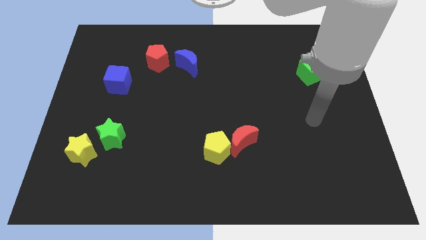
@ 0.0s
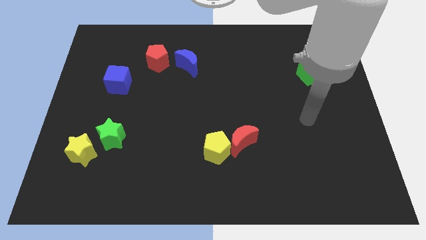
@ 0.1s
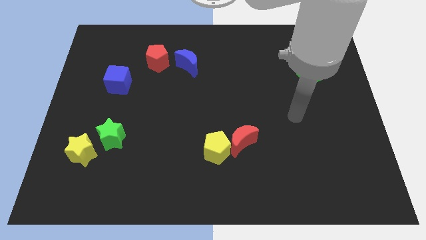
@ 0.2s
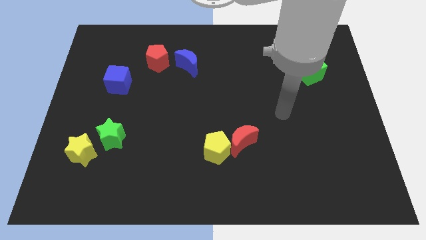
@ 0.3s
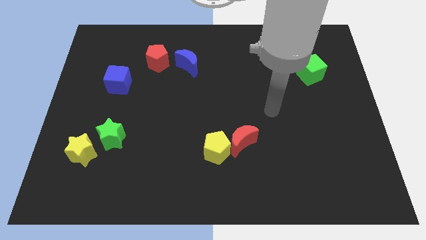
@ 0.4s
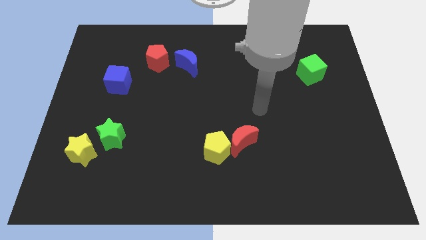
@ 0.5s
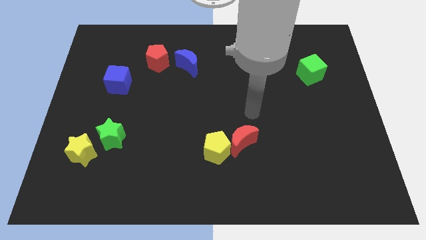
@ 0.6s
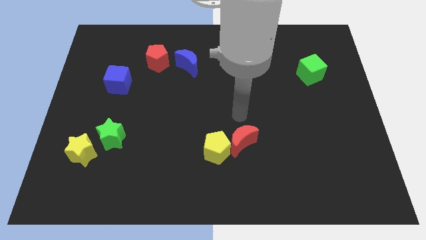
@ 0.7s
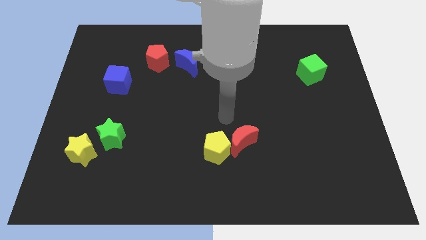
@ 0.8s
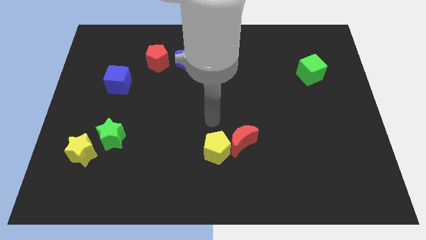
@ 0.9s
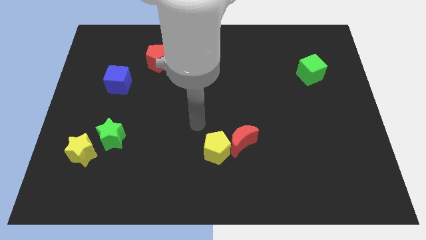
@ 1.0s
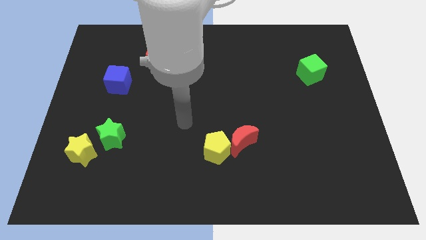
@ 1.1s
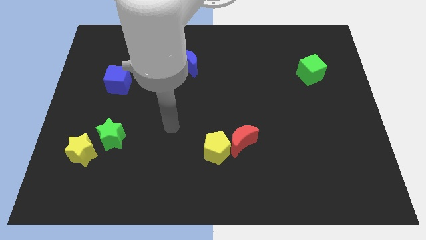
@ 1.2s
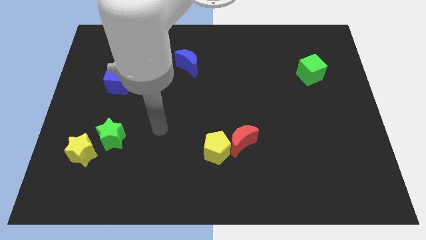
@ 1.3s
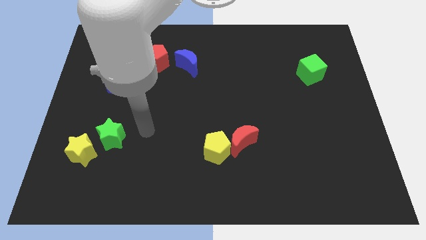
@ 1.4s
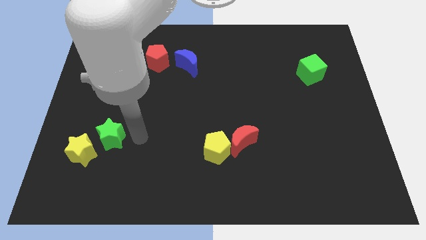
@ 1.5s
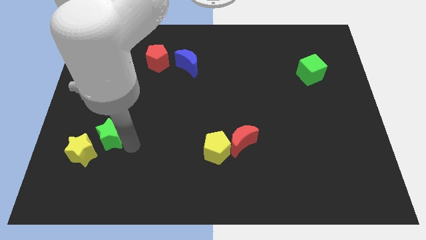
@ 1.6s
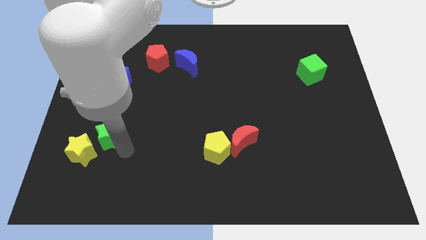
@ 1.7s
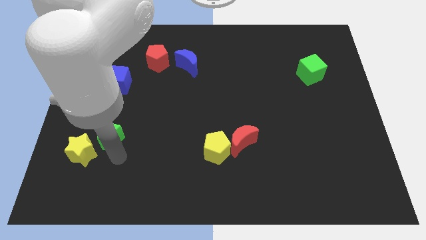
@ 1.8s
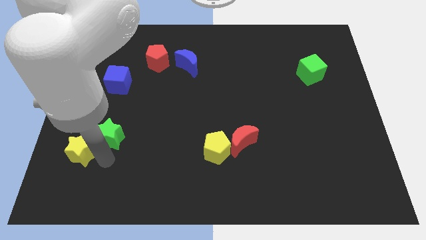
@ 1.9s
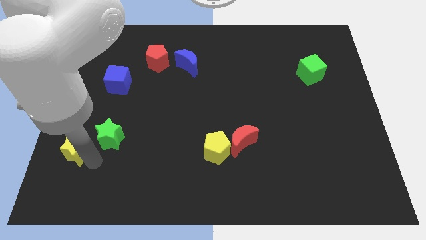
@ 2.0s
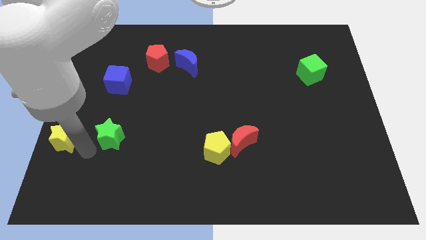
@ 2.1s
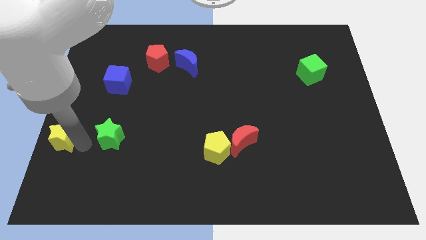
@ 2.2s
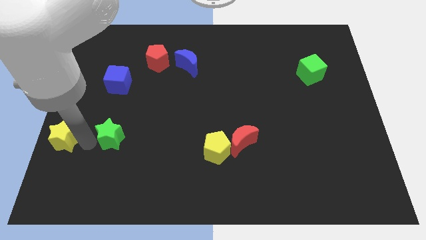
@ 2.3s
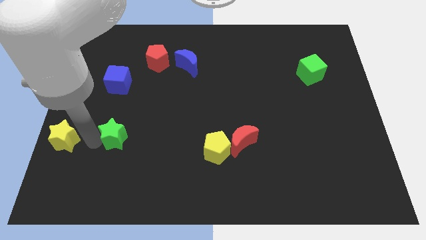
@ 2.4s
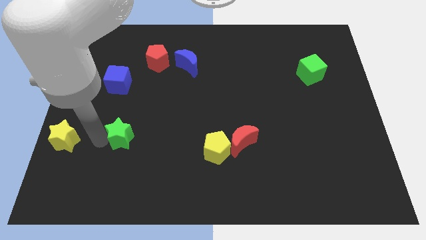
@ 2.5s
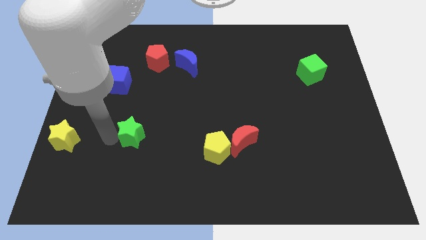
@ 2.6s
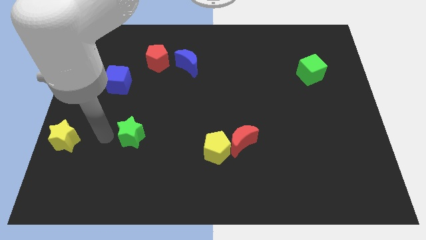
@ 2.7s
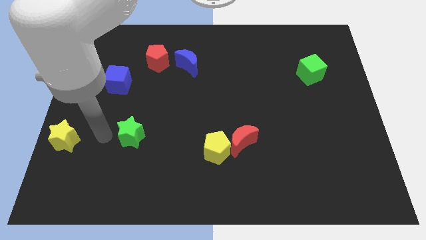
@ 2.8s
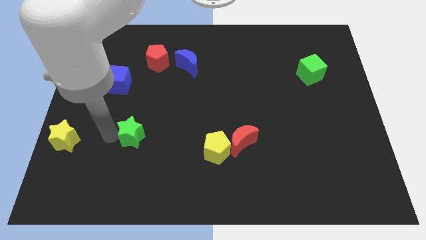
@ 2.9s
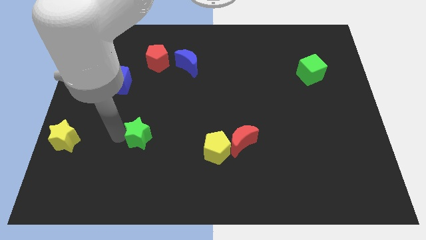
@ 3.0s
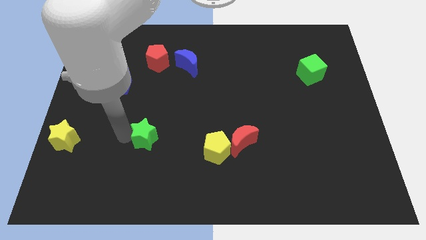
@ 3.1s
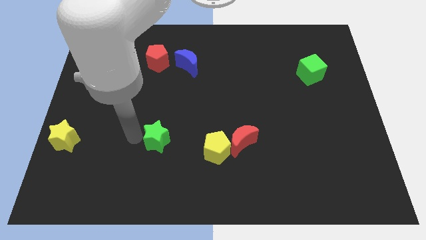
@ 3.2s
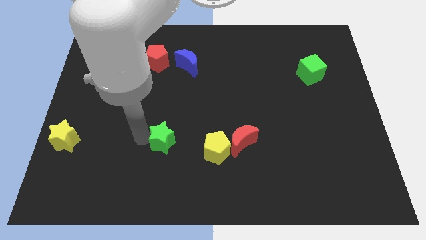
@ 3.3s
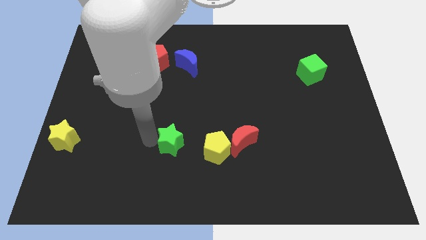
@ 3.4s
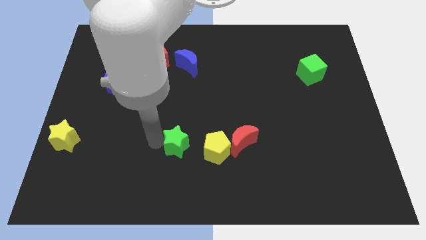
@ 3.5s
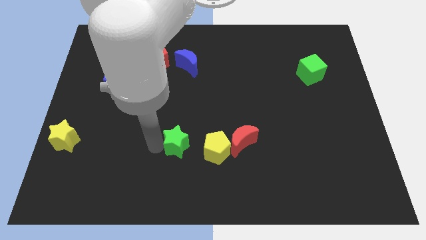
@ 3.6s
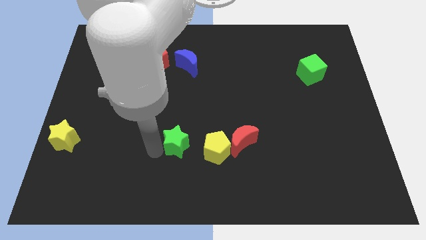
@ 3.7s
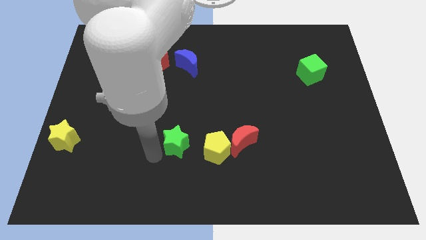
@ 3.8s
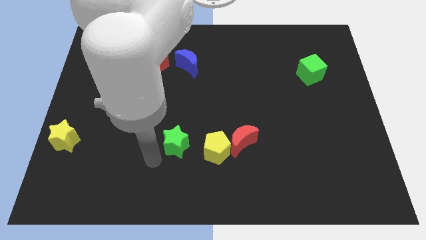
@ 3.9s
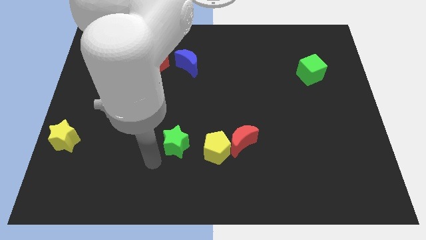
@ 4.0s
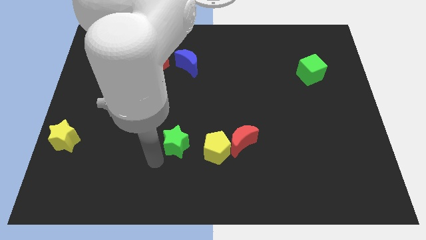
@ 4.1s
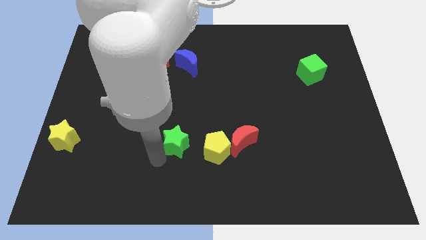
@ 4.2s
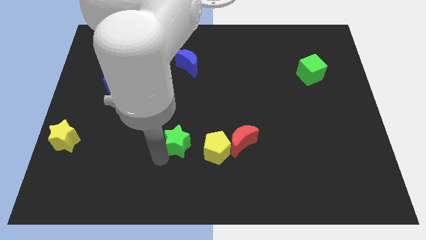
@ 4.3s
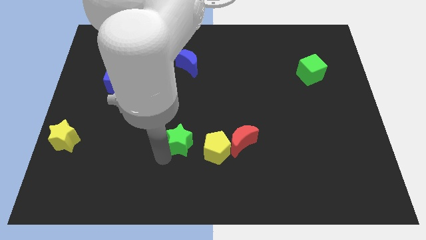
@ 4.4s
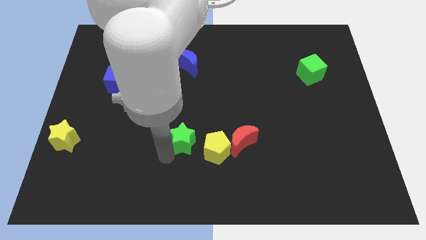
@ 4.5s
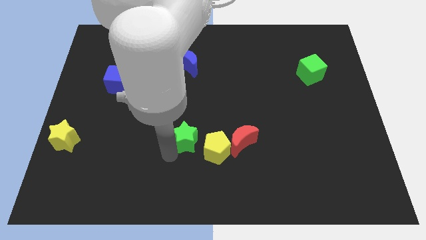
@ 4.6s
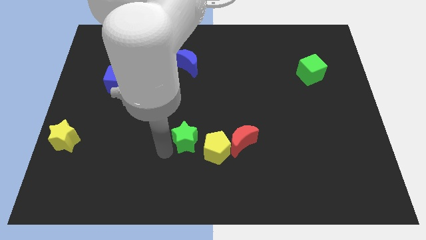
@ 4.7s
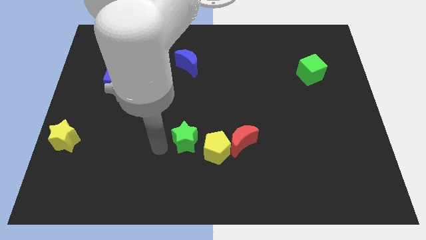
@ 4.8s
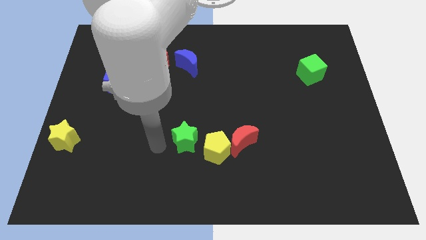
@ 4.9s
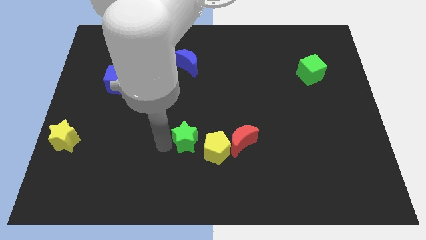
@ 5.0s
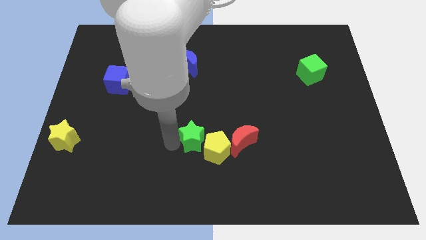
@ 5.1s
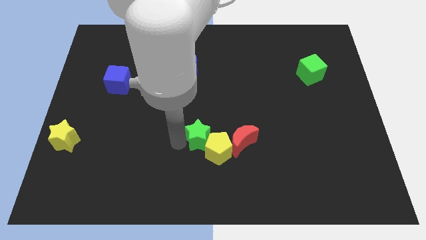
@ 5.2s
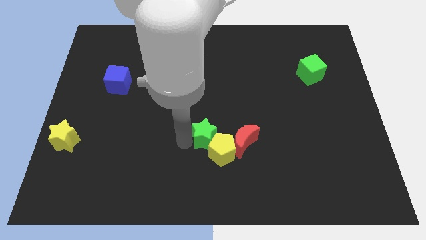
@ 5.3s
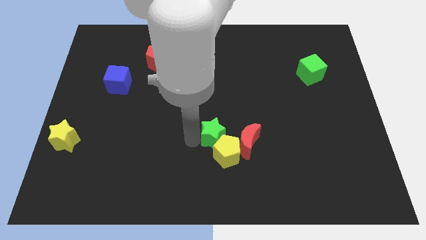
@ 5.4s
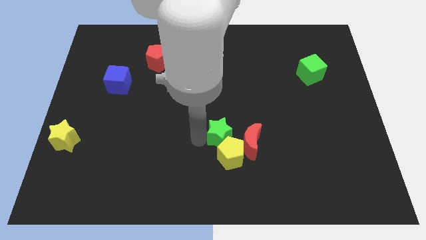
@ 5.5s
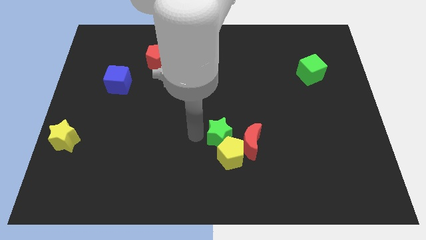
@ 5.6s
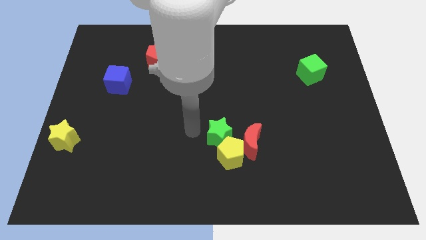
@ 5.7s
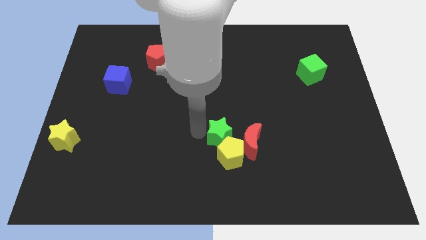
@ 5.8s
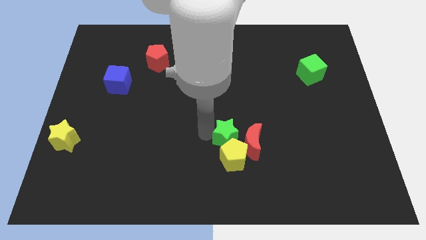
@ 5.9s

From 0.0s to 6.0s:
put the green star towards the red moon

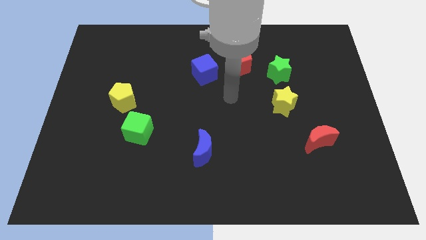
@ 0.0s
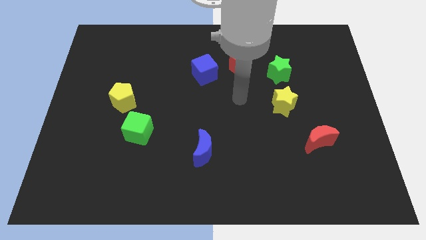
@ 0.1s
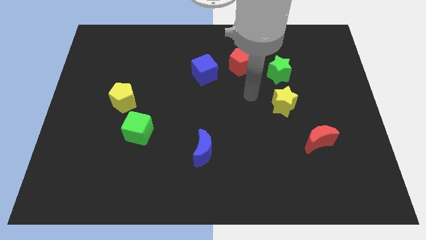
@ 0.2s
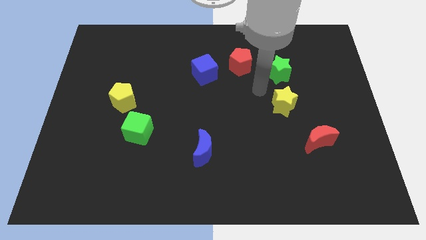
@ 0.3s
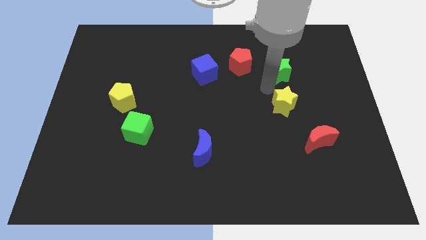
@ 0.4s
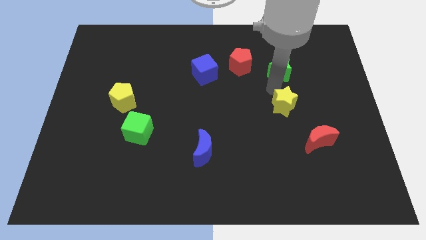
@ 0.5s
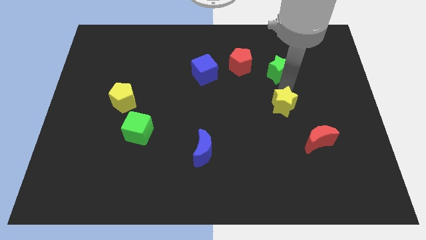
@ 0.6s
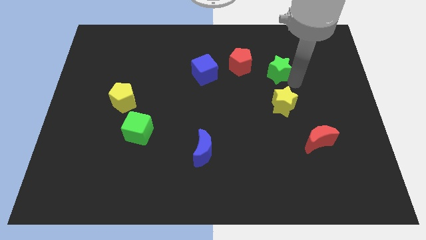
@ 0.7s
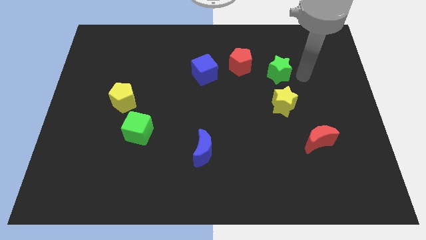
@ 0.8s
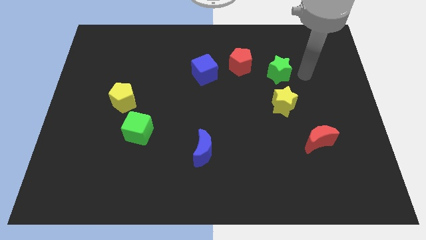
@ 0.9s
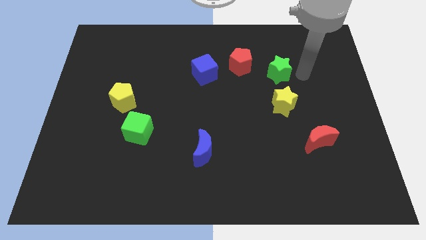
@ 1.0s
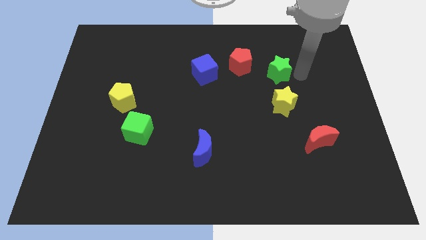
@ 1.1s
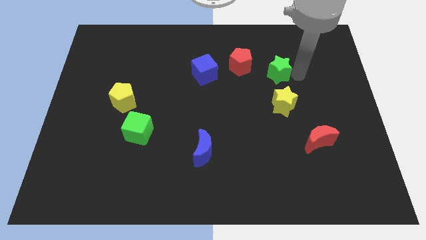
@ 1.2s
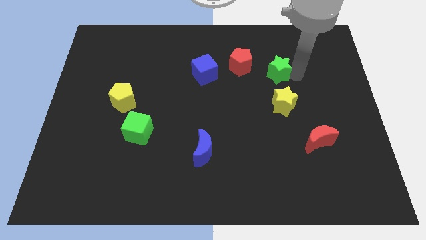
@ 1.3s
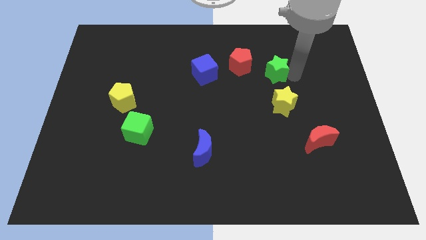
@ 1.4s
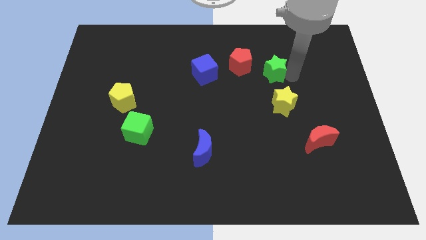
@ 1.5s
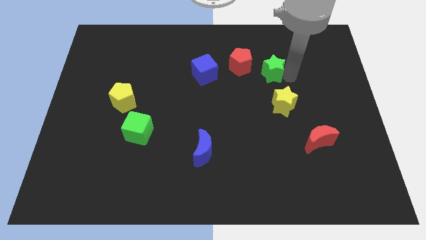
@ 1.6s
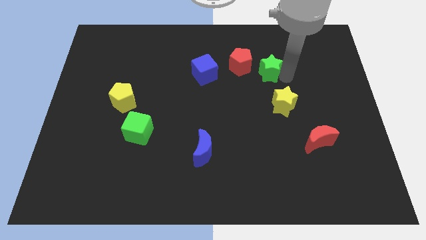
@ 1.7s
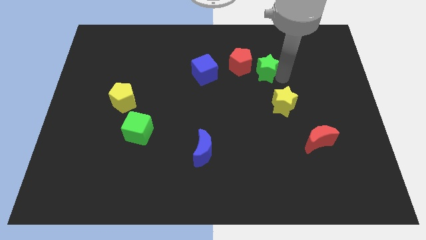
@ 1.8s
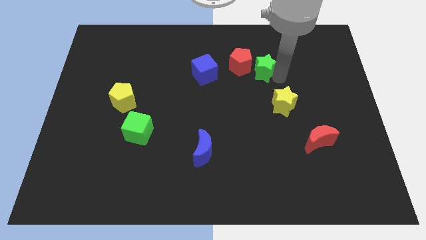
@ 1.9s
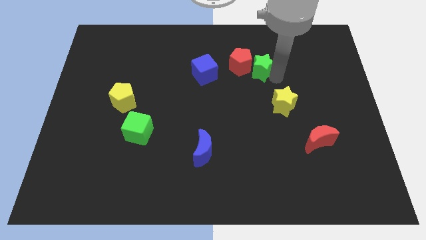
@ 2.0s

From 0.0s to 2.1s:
put the green star next to the red pentagon
